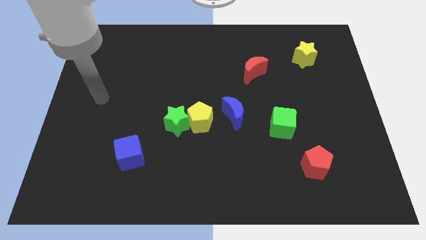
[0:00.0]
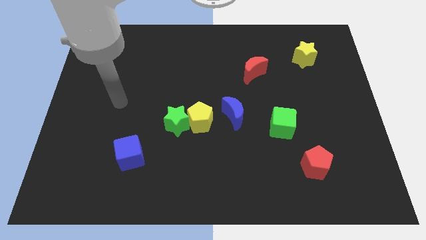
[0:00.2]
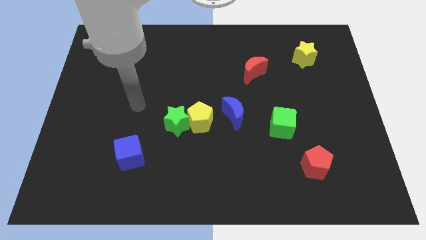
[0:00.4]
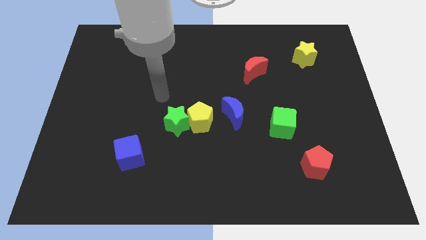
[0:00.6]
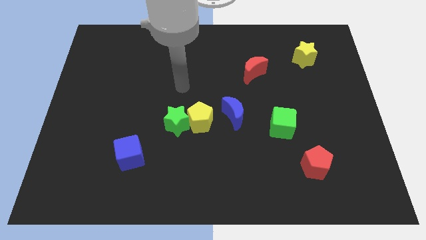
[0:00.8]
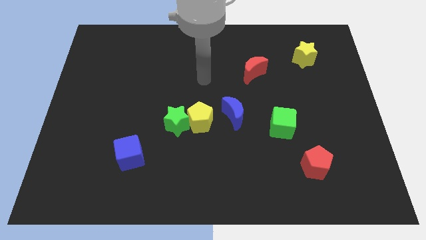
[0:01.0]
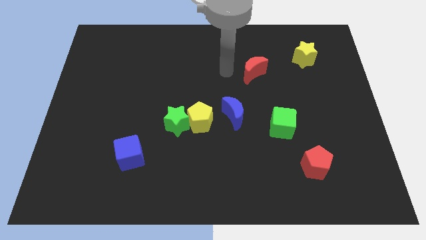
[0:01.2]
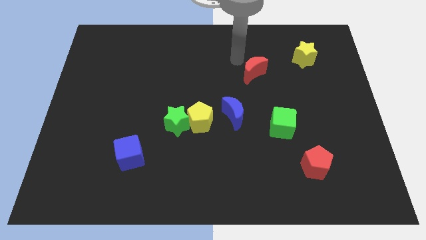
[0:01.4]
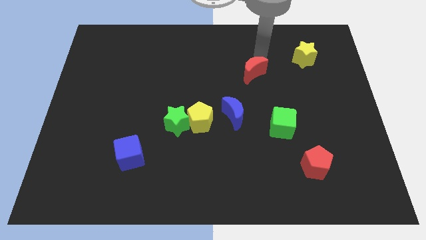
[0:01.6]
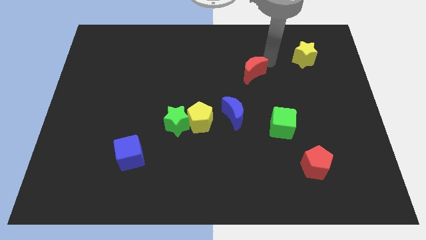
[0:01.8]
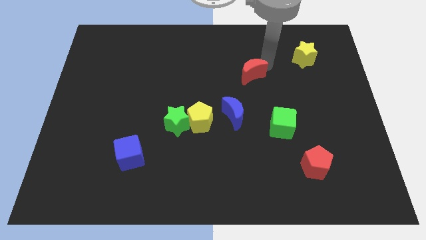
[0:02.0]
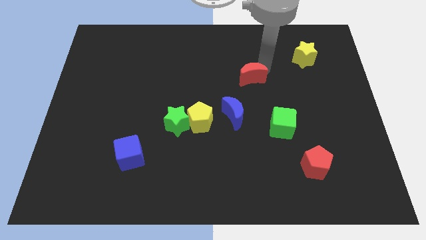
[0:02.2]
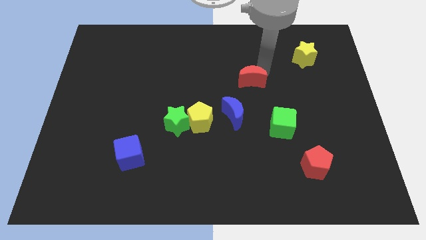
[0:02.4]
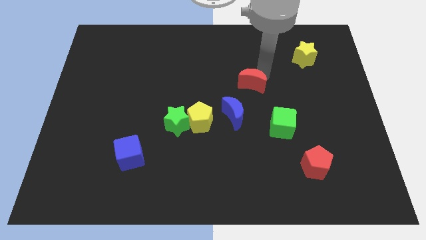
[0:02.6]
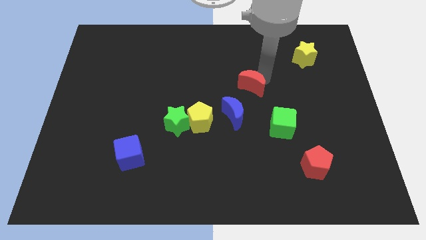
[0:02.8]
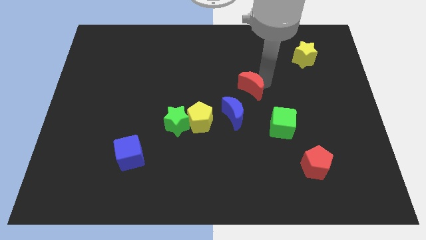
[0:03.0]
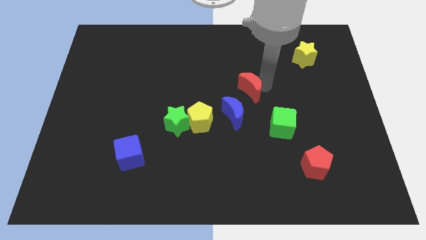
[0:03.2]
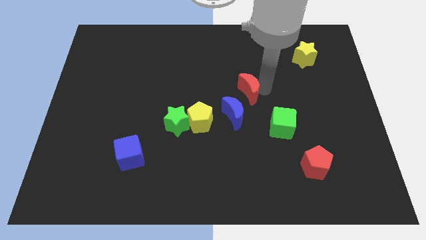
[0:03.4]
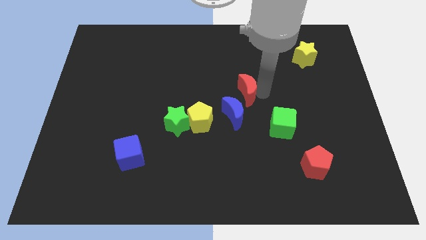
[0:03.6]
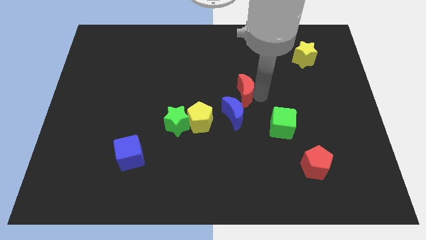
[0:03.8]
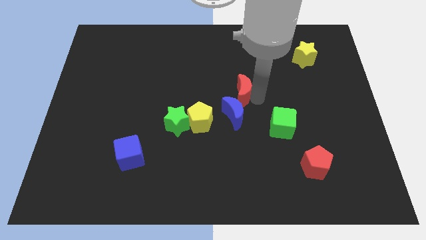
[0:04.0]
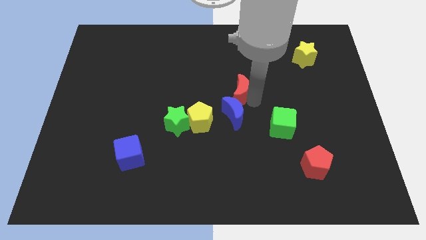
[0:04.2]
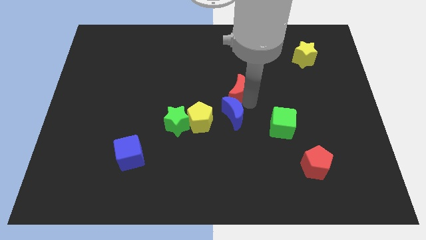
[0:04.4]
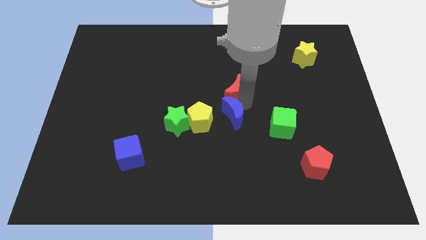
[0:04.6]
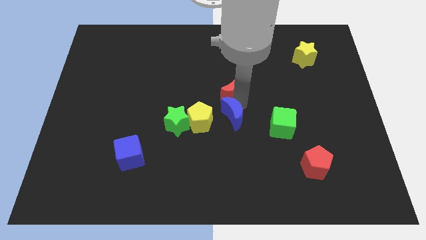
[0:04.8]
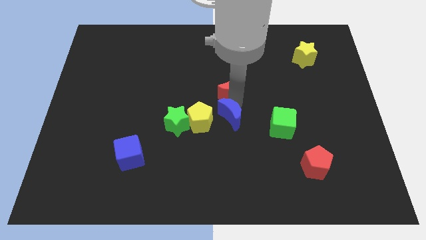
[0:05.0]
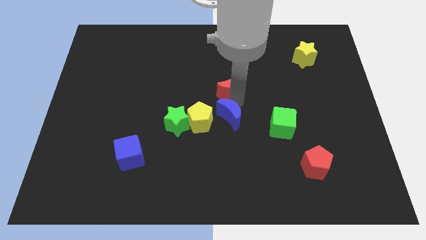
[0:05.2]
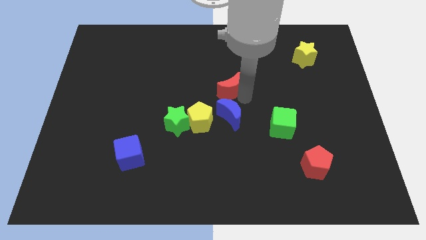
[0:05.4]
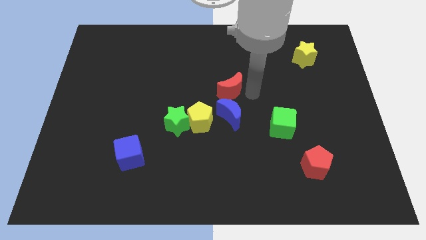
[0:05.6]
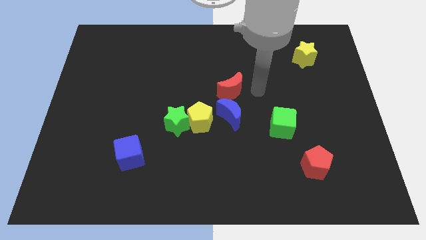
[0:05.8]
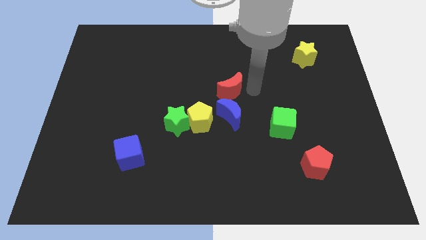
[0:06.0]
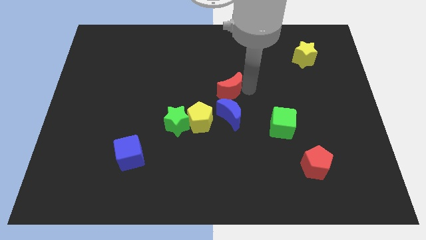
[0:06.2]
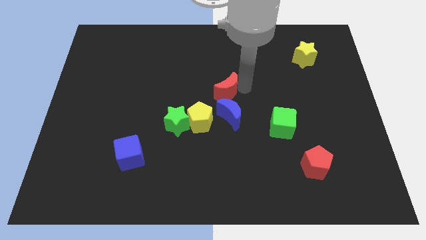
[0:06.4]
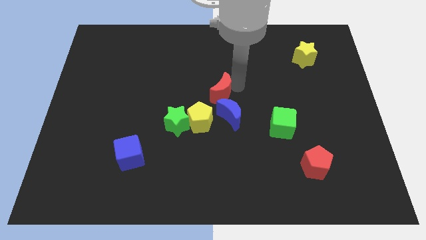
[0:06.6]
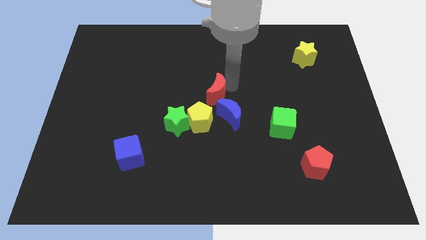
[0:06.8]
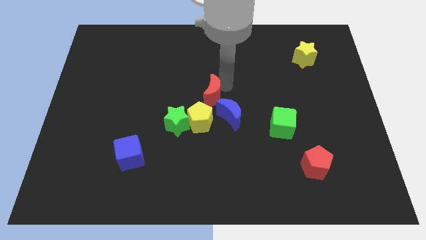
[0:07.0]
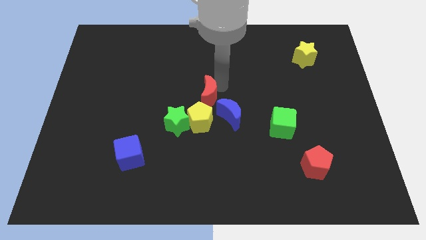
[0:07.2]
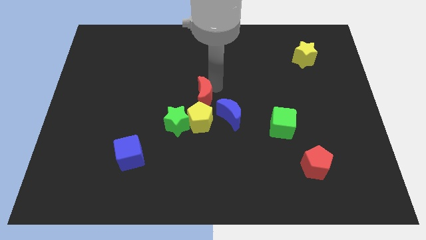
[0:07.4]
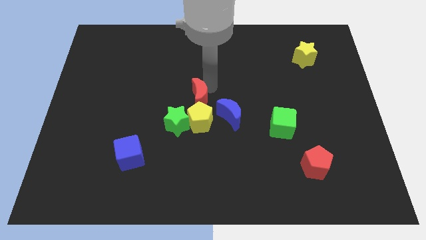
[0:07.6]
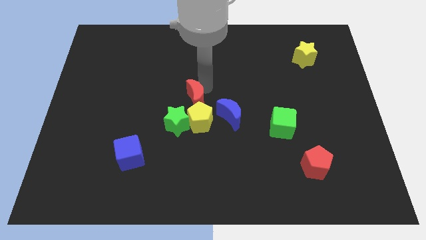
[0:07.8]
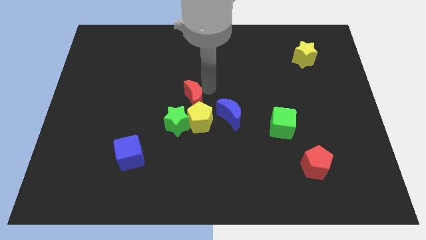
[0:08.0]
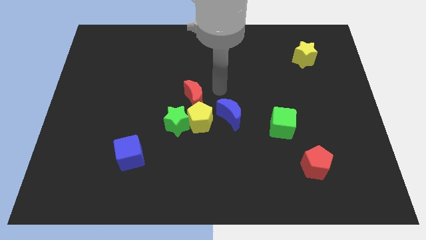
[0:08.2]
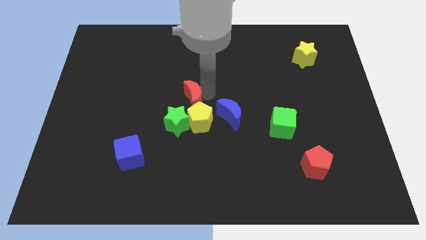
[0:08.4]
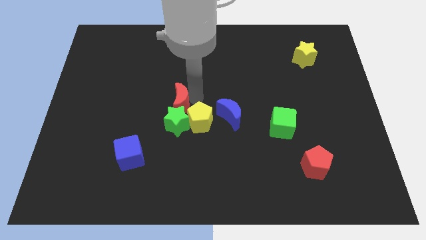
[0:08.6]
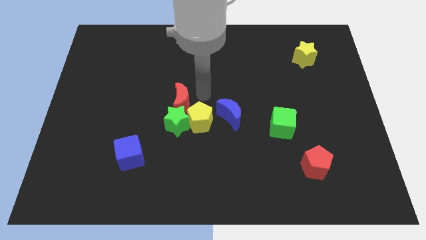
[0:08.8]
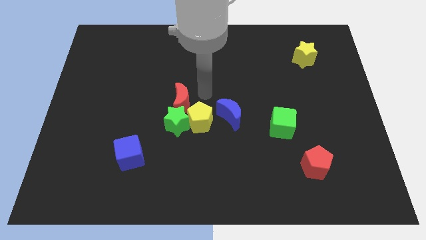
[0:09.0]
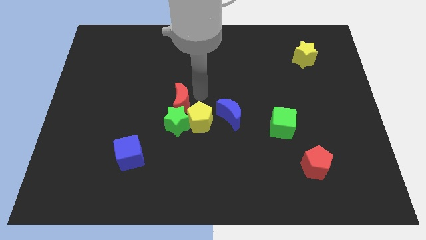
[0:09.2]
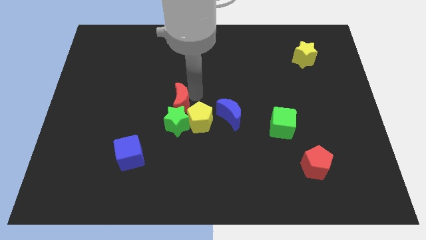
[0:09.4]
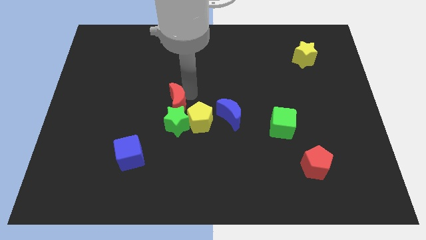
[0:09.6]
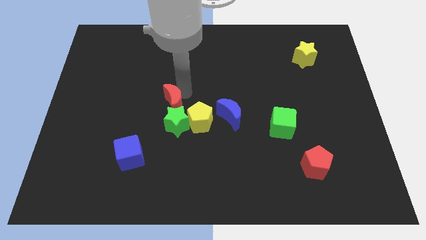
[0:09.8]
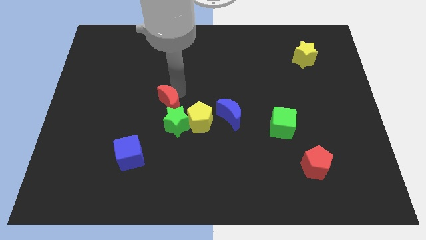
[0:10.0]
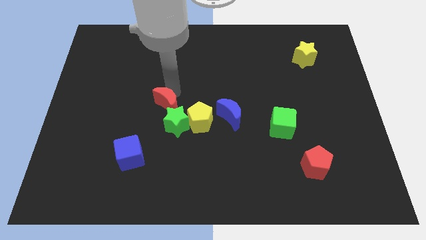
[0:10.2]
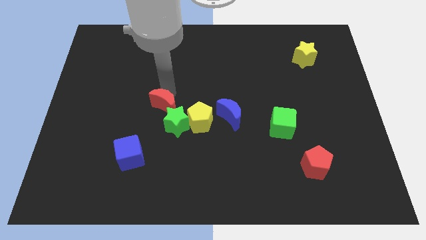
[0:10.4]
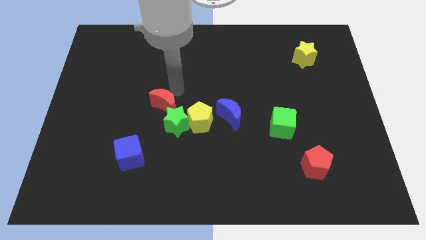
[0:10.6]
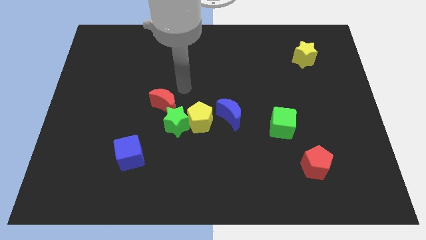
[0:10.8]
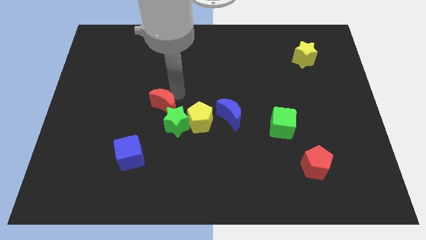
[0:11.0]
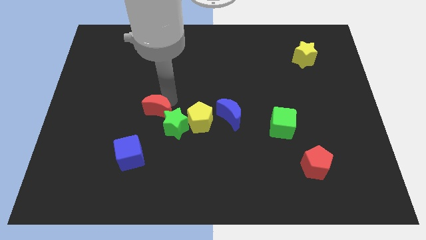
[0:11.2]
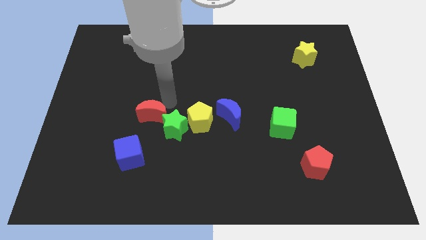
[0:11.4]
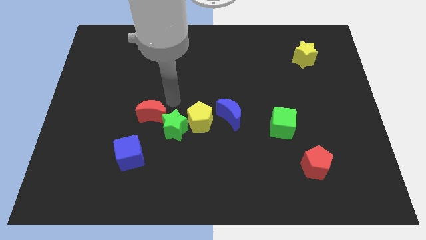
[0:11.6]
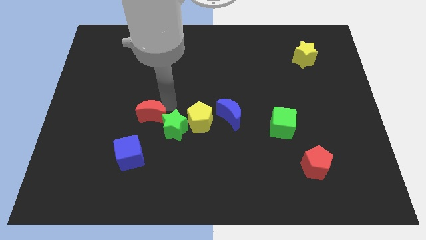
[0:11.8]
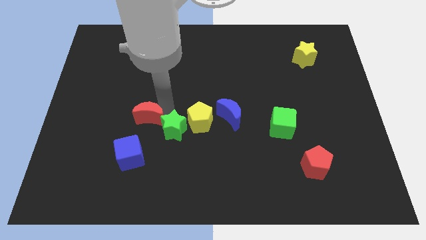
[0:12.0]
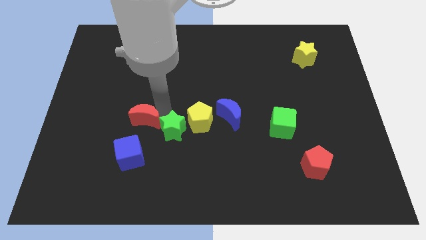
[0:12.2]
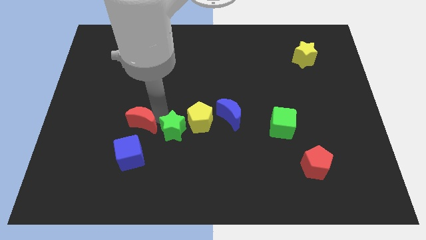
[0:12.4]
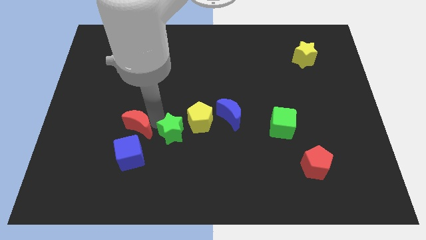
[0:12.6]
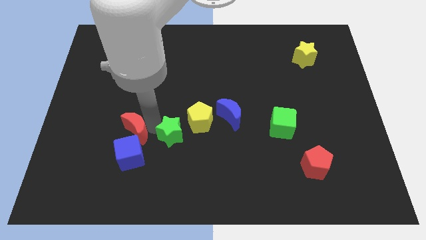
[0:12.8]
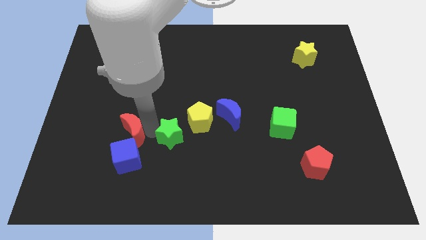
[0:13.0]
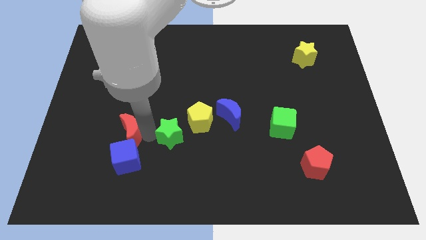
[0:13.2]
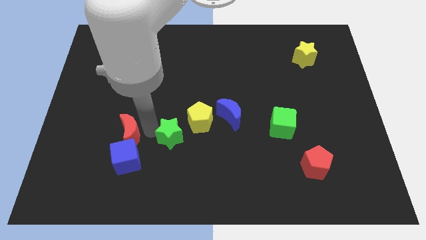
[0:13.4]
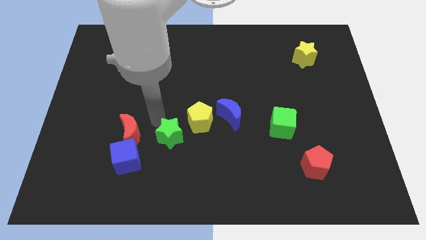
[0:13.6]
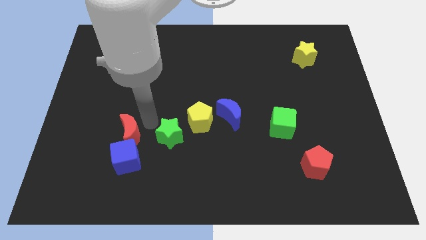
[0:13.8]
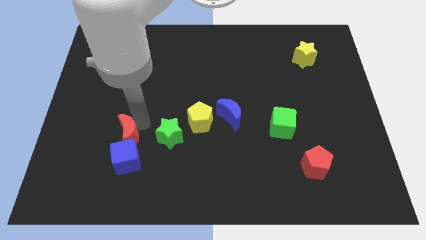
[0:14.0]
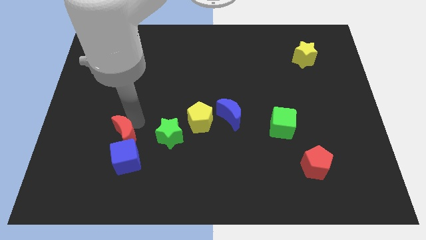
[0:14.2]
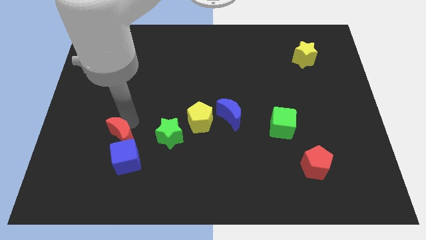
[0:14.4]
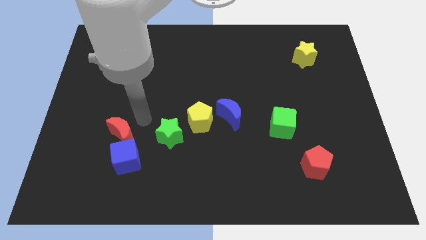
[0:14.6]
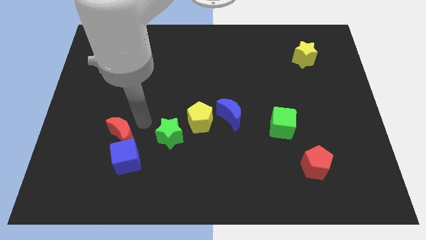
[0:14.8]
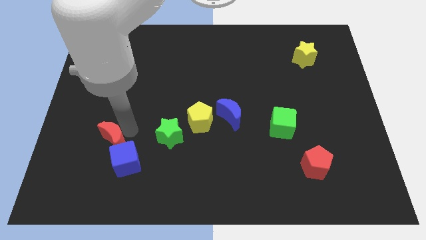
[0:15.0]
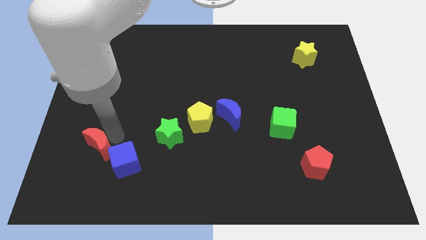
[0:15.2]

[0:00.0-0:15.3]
move the red moon to the left of the blue cube
